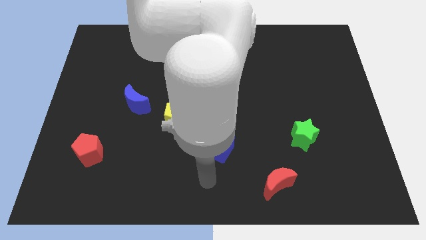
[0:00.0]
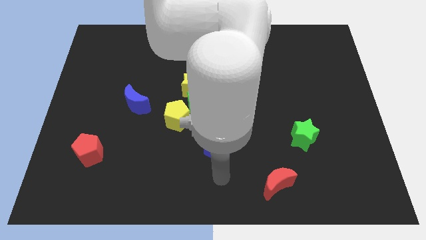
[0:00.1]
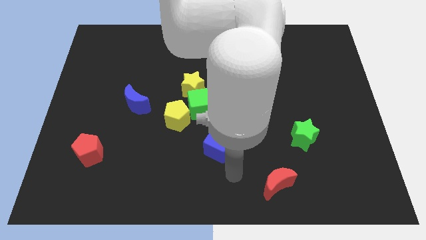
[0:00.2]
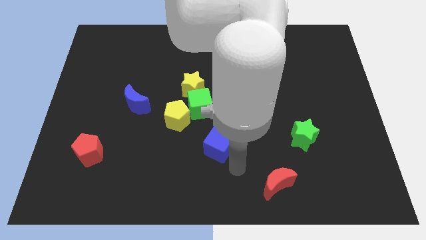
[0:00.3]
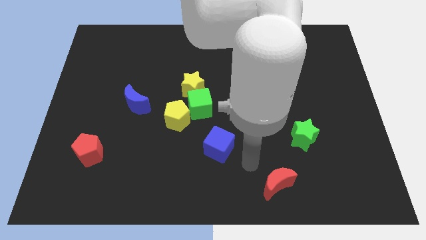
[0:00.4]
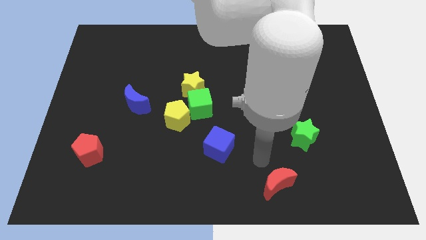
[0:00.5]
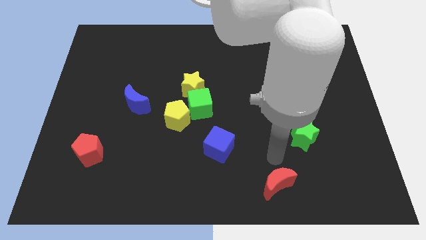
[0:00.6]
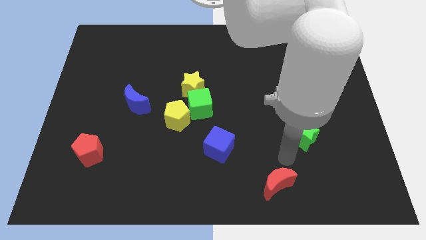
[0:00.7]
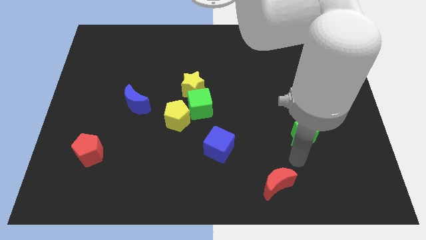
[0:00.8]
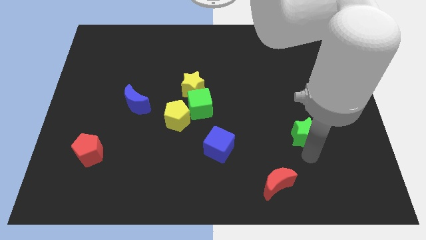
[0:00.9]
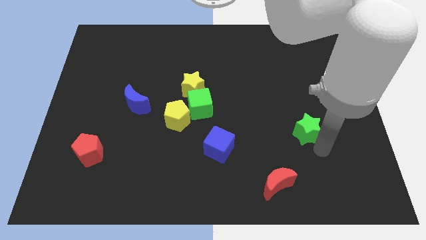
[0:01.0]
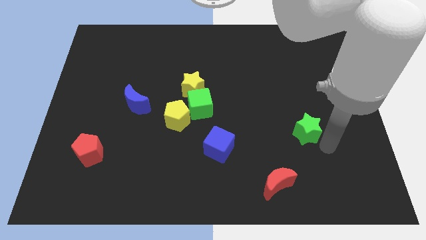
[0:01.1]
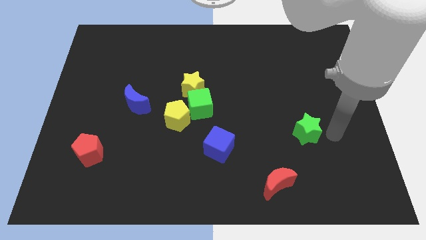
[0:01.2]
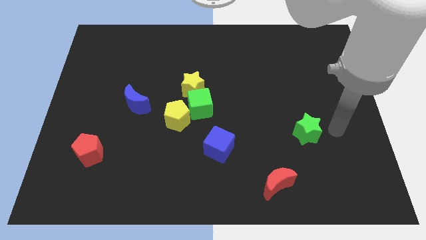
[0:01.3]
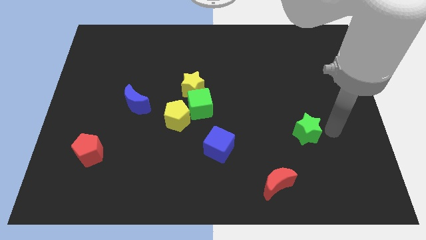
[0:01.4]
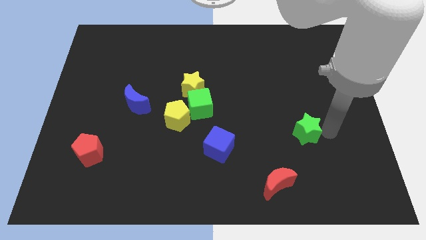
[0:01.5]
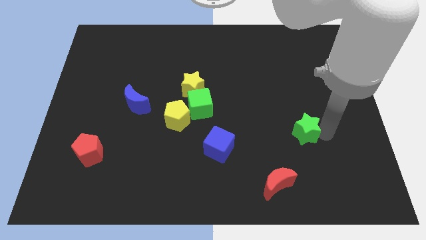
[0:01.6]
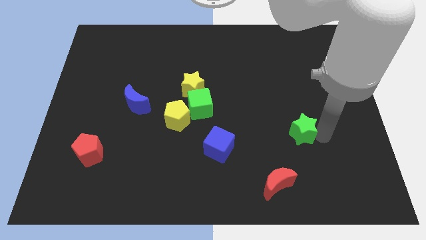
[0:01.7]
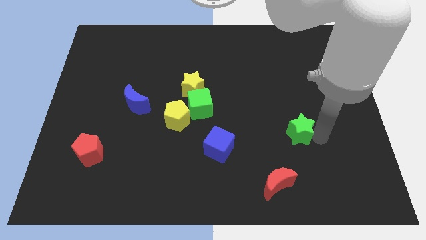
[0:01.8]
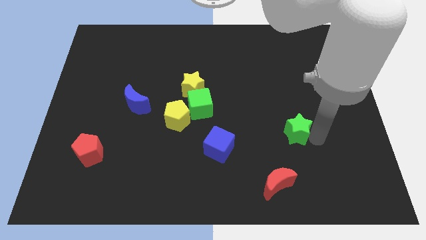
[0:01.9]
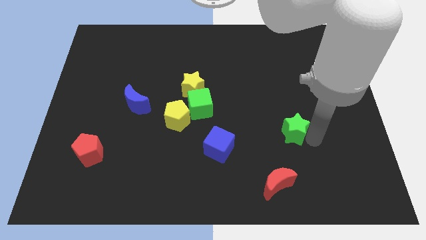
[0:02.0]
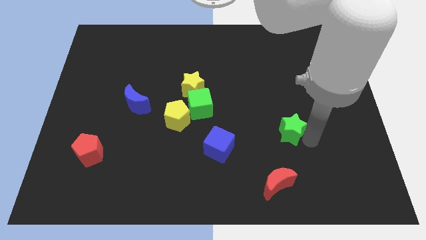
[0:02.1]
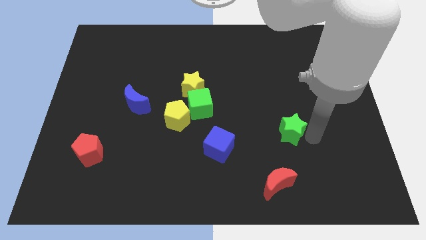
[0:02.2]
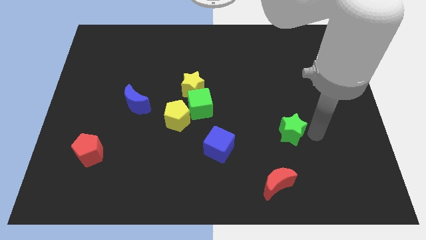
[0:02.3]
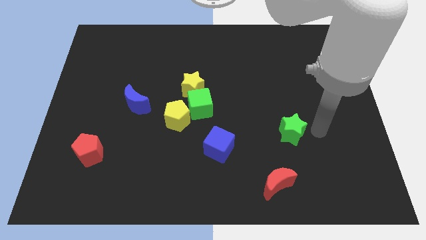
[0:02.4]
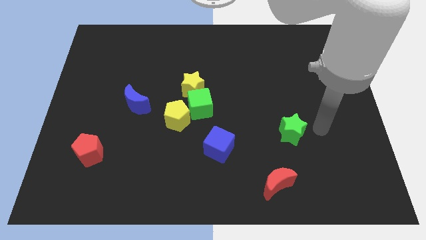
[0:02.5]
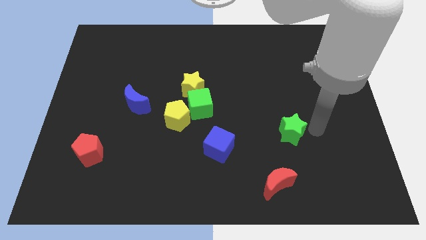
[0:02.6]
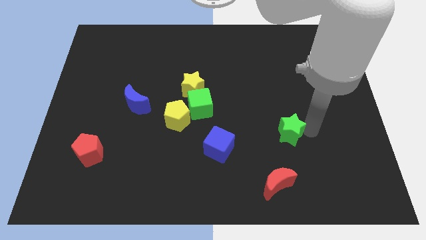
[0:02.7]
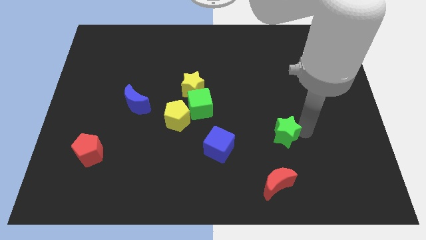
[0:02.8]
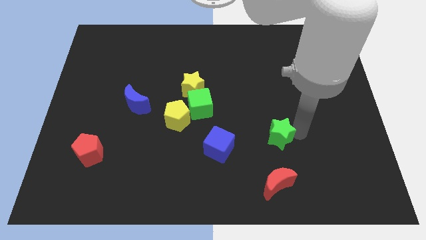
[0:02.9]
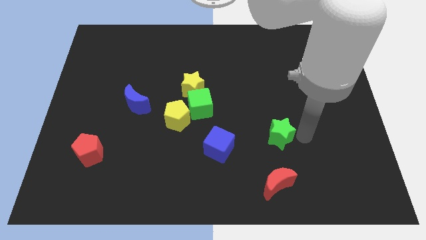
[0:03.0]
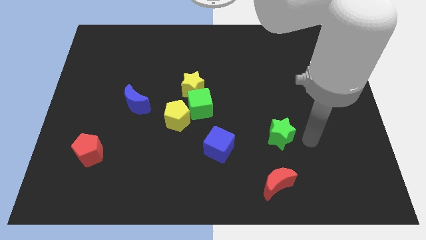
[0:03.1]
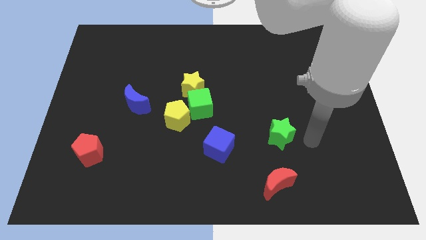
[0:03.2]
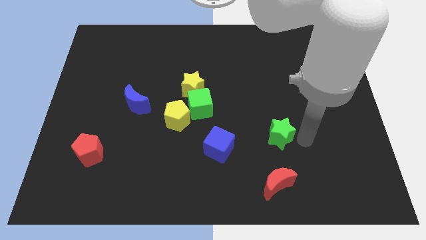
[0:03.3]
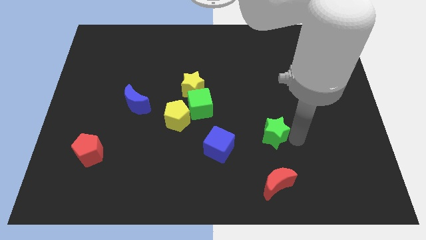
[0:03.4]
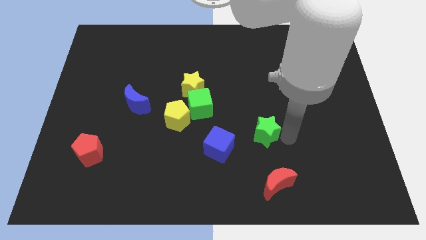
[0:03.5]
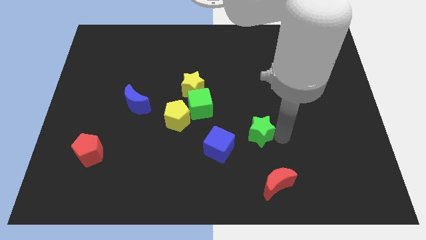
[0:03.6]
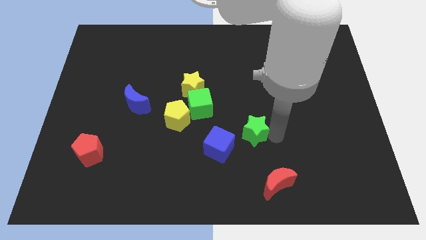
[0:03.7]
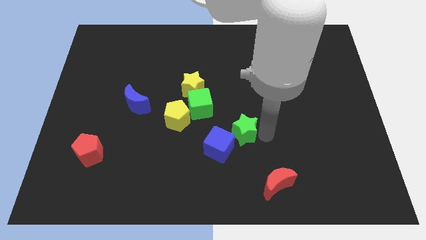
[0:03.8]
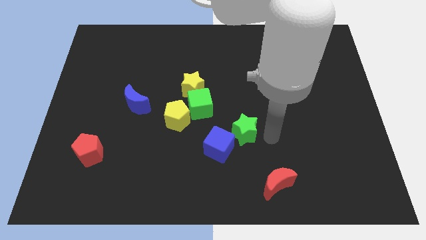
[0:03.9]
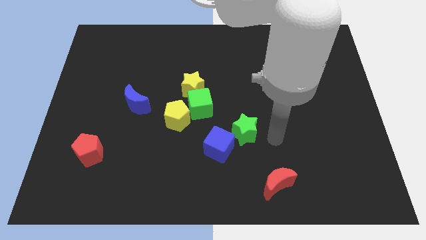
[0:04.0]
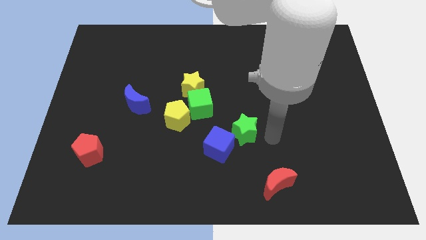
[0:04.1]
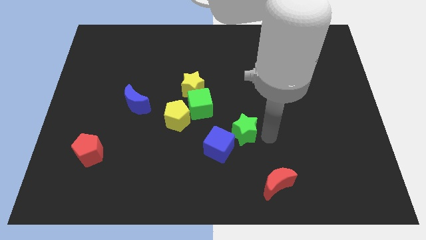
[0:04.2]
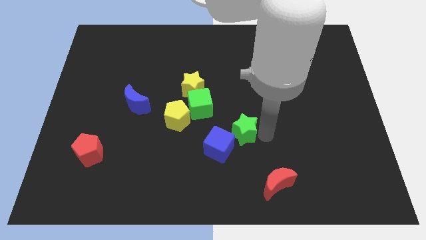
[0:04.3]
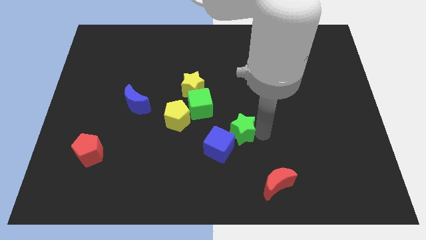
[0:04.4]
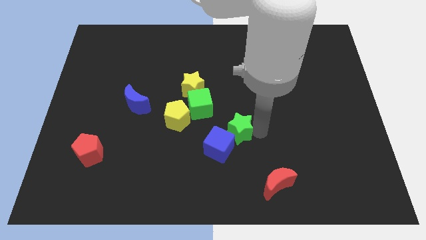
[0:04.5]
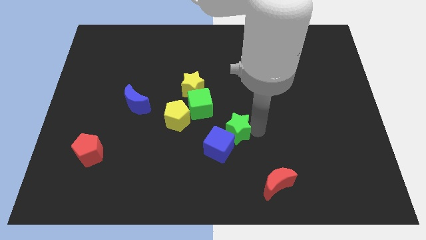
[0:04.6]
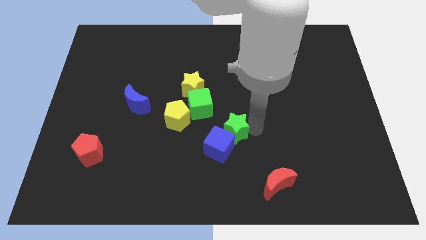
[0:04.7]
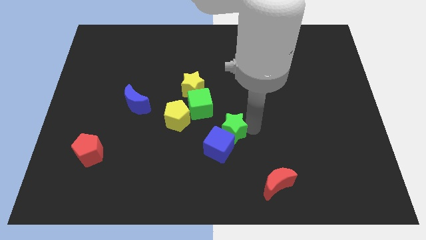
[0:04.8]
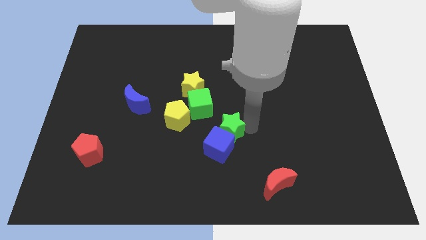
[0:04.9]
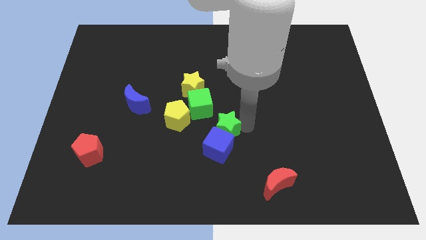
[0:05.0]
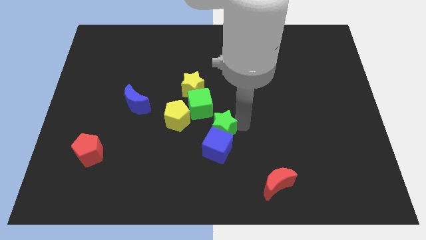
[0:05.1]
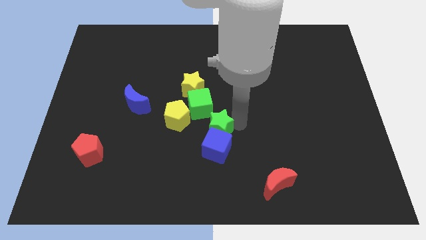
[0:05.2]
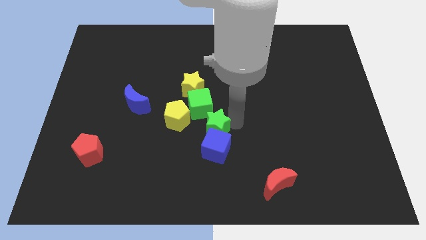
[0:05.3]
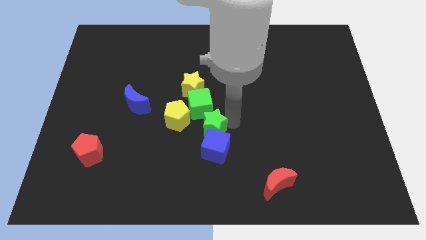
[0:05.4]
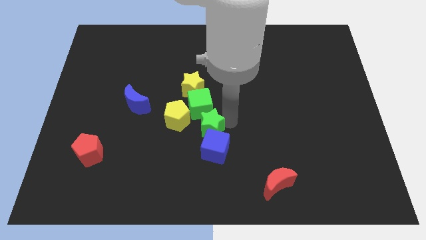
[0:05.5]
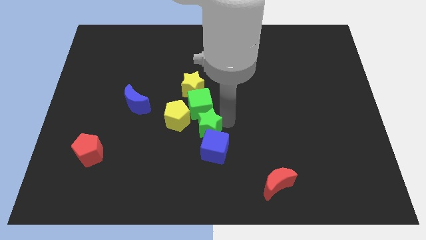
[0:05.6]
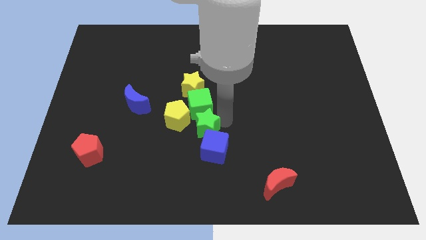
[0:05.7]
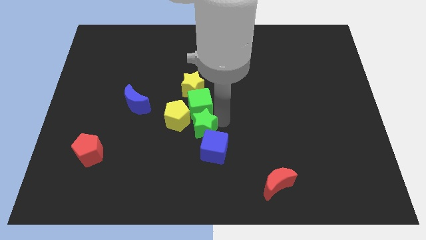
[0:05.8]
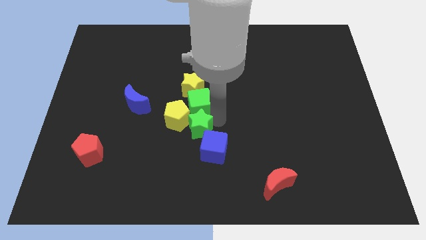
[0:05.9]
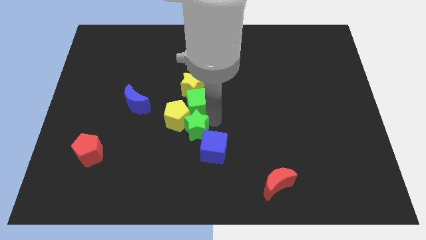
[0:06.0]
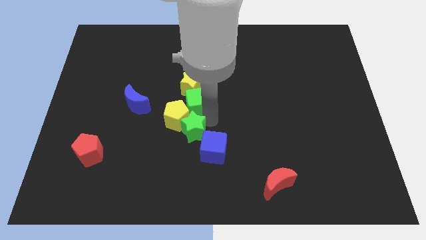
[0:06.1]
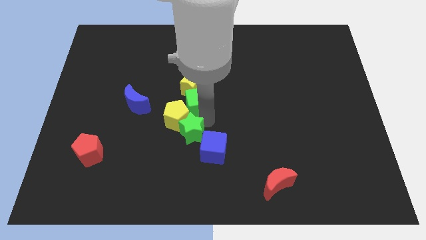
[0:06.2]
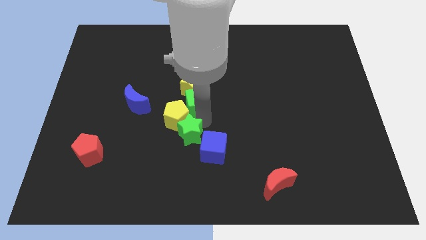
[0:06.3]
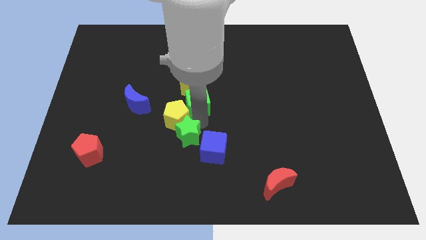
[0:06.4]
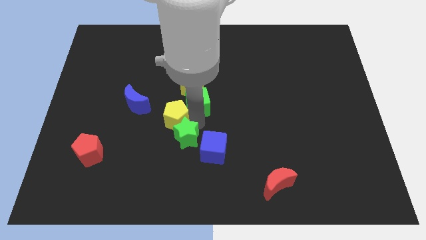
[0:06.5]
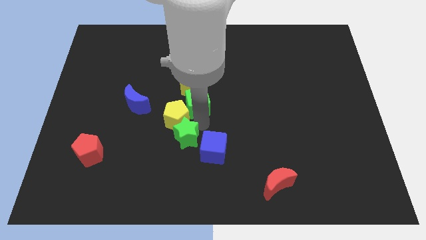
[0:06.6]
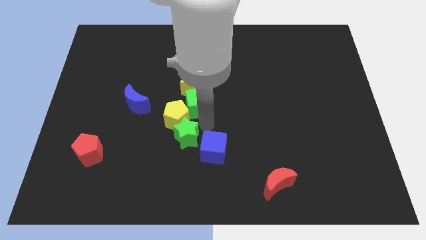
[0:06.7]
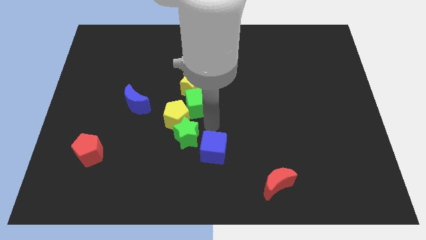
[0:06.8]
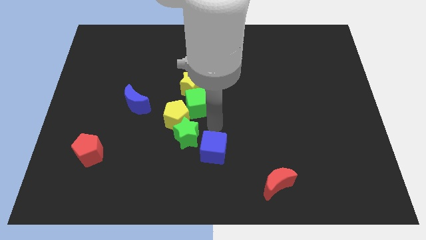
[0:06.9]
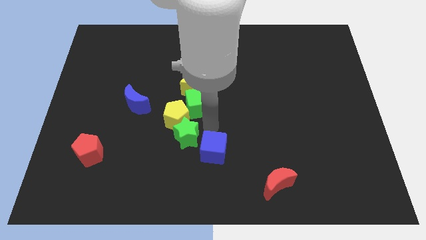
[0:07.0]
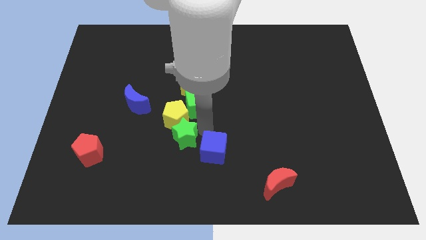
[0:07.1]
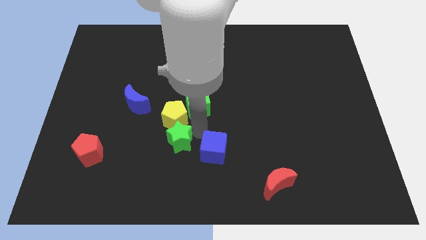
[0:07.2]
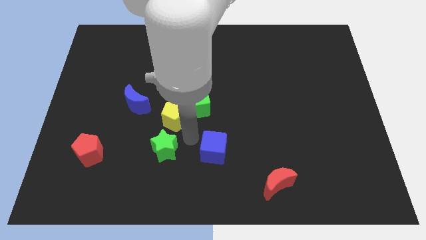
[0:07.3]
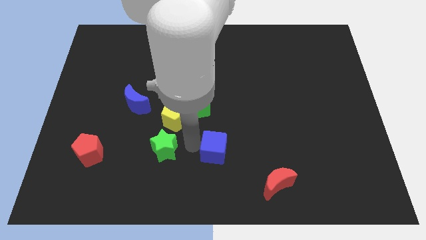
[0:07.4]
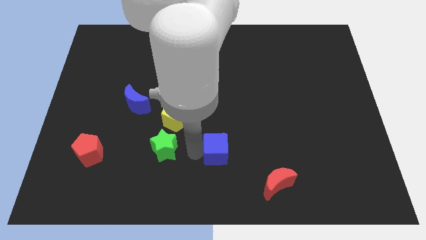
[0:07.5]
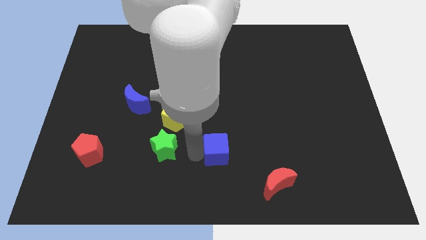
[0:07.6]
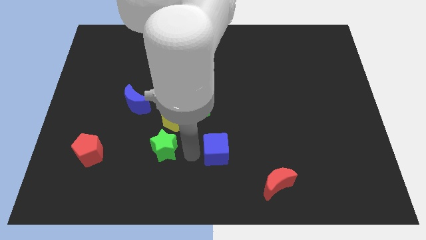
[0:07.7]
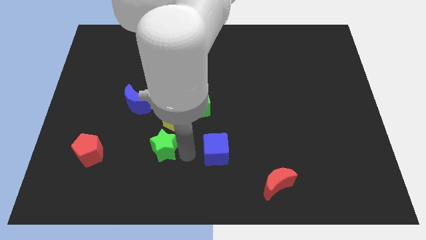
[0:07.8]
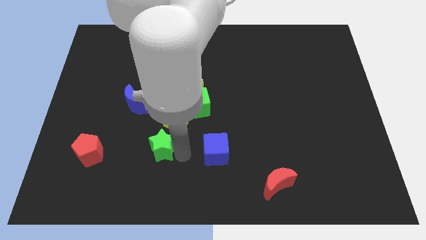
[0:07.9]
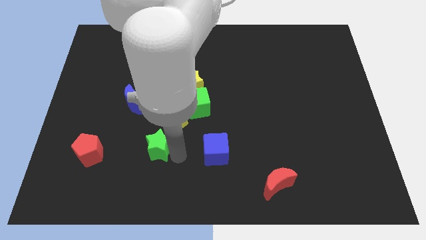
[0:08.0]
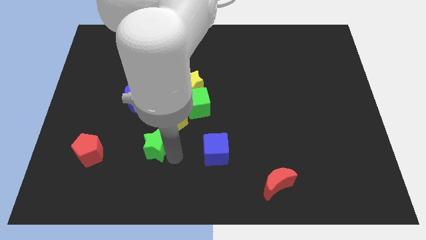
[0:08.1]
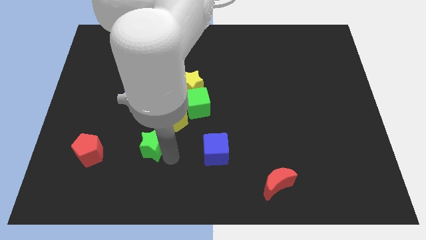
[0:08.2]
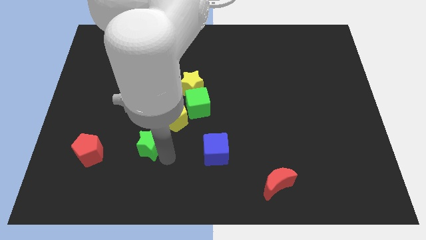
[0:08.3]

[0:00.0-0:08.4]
put the green star to the bottom side of the blue moon
